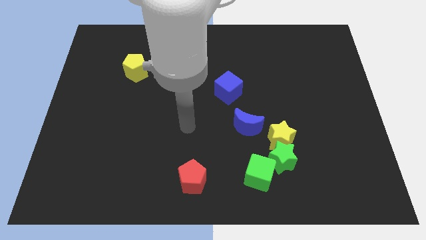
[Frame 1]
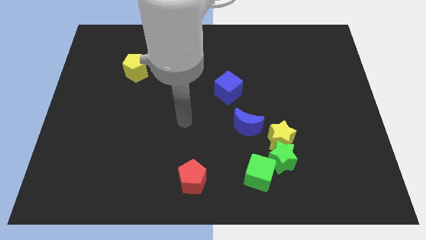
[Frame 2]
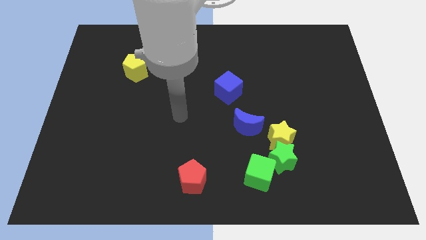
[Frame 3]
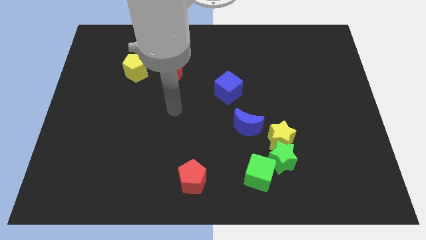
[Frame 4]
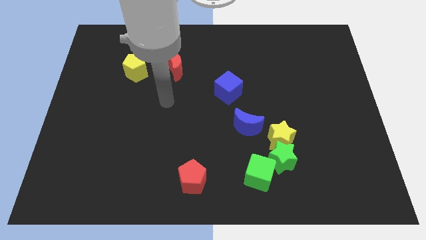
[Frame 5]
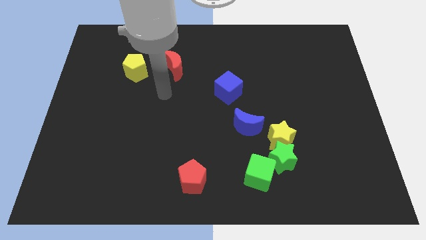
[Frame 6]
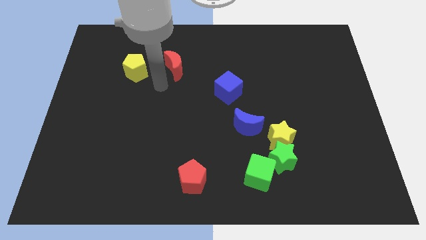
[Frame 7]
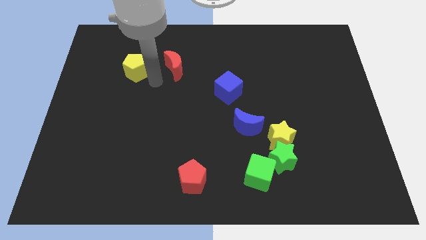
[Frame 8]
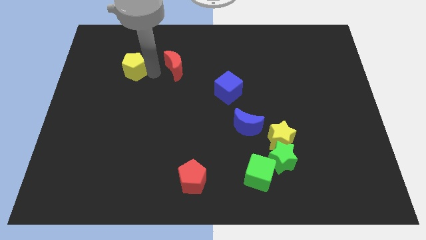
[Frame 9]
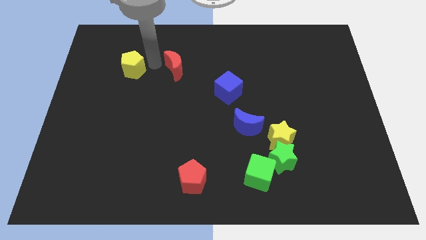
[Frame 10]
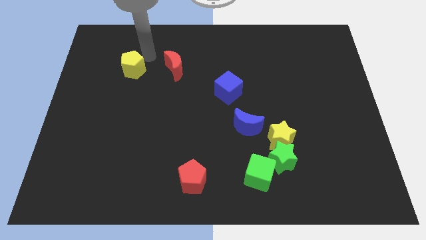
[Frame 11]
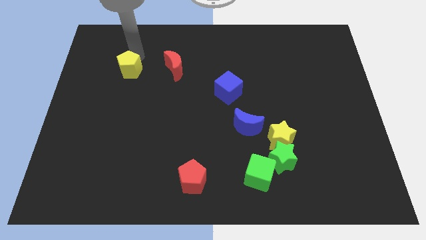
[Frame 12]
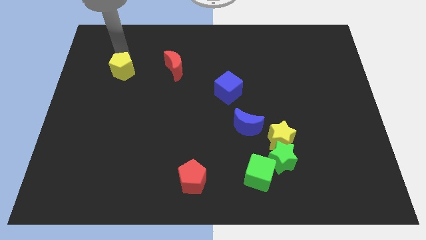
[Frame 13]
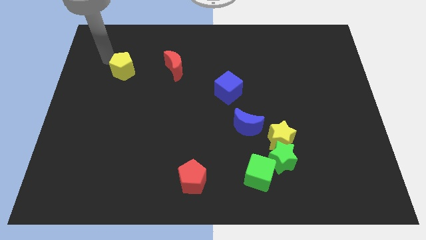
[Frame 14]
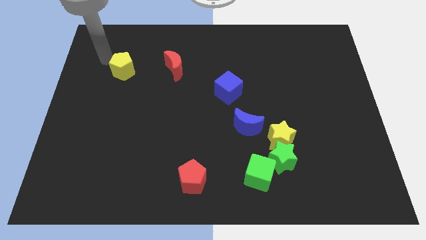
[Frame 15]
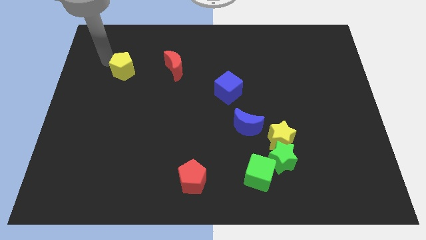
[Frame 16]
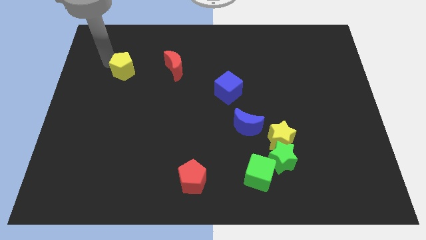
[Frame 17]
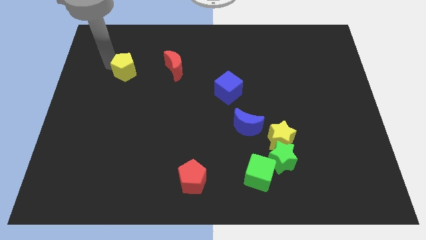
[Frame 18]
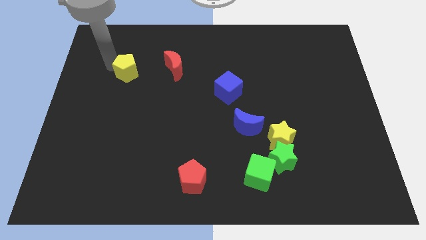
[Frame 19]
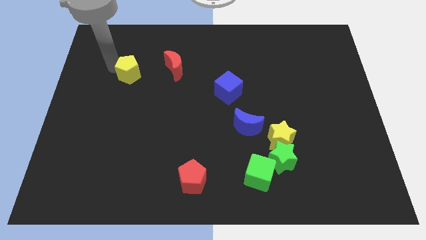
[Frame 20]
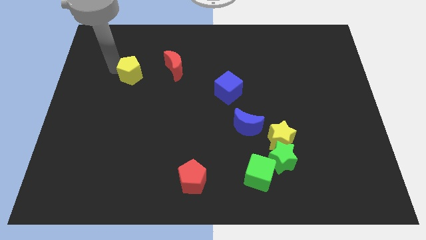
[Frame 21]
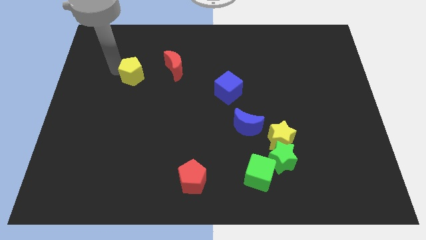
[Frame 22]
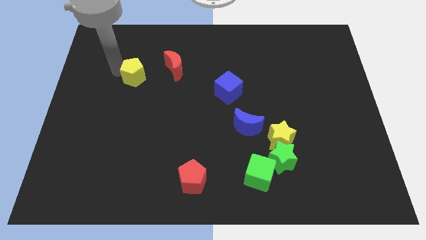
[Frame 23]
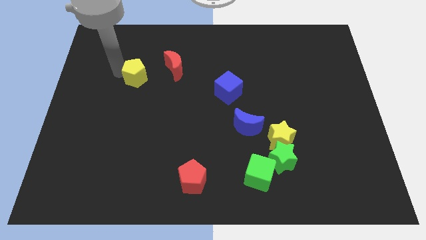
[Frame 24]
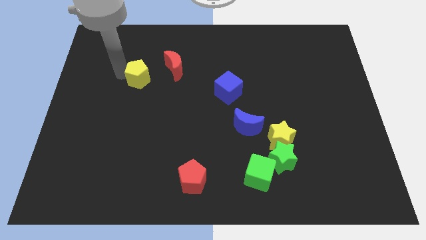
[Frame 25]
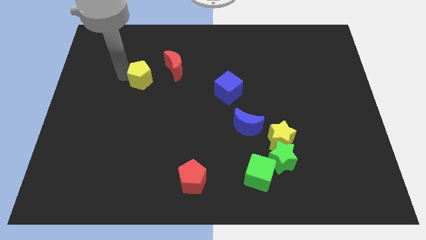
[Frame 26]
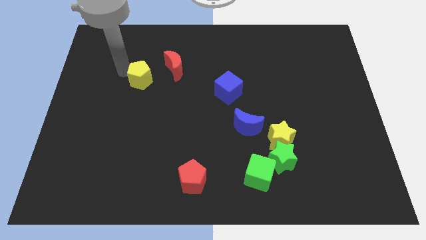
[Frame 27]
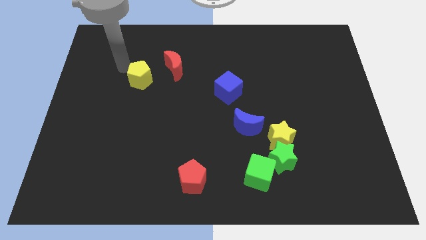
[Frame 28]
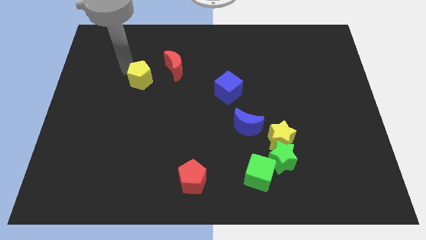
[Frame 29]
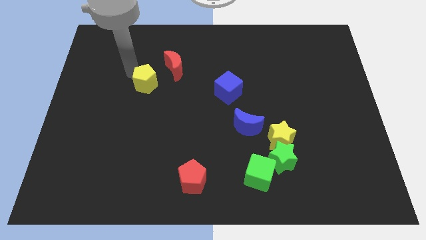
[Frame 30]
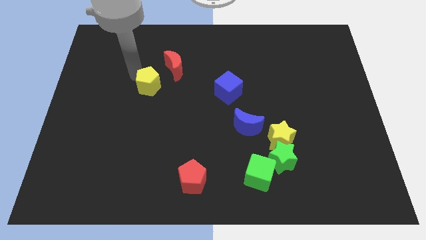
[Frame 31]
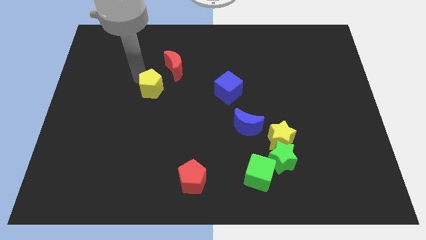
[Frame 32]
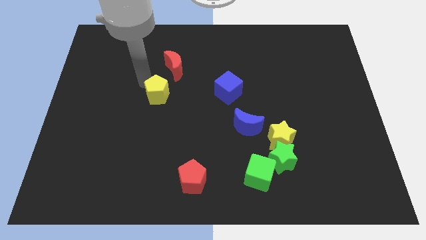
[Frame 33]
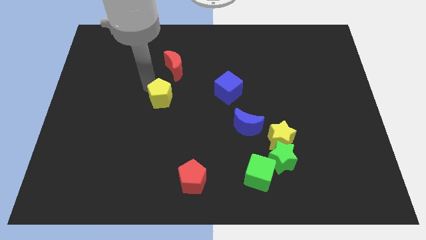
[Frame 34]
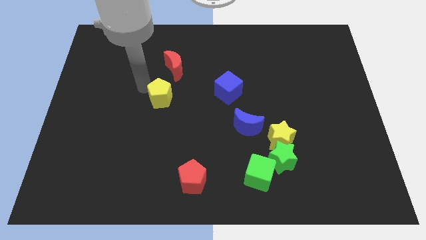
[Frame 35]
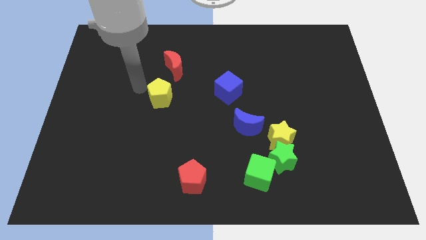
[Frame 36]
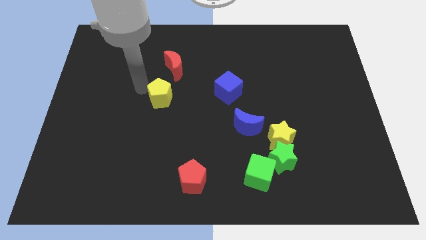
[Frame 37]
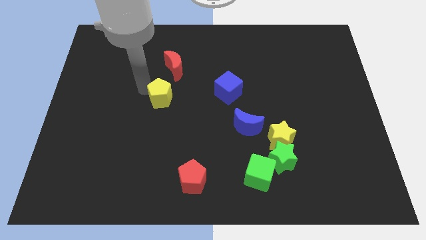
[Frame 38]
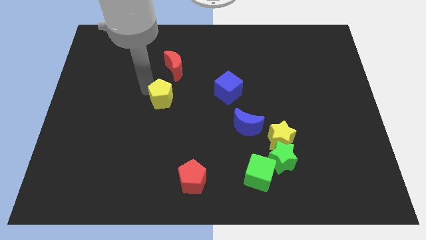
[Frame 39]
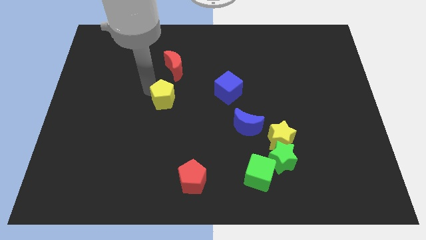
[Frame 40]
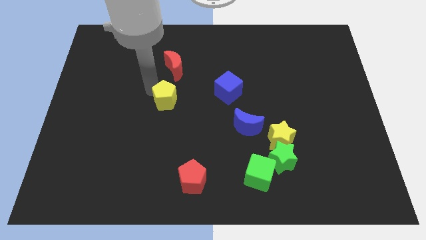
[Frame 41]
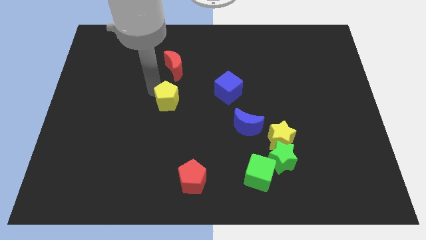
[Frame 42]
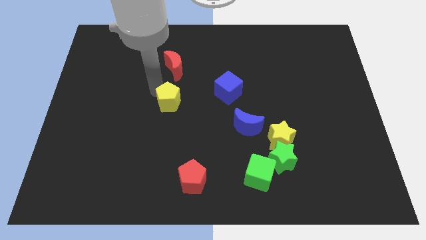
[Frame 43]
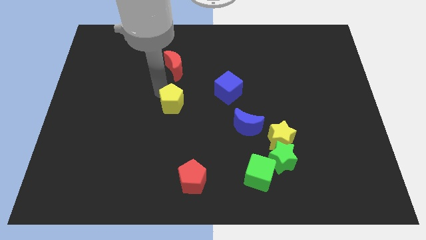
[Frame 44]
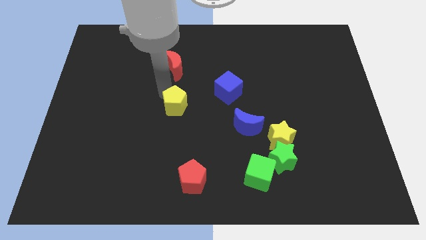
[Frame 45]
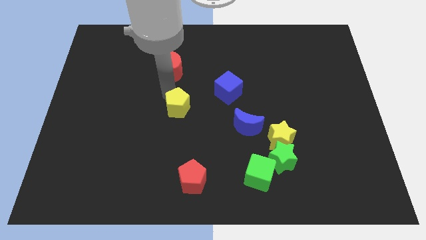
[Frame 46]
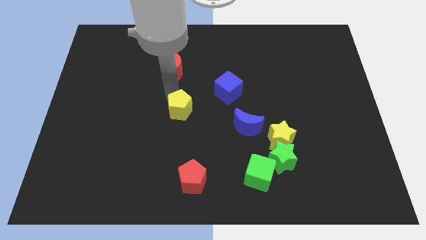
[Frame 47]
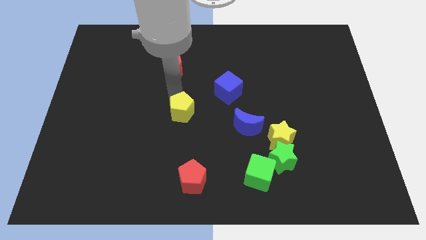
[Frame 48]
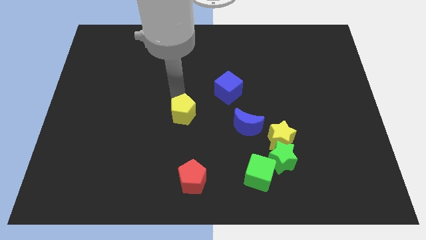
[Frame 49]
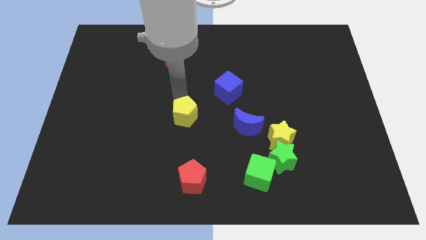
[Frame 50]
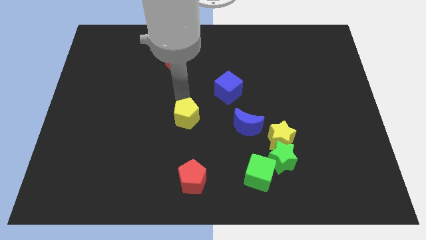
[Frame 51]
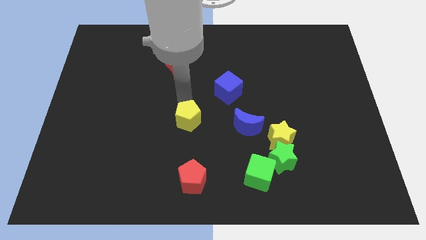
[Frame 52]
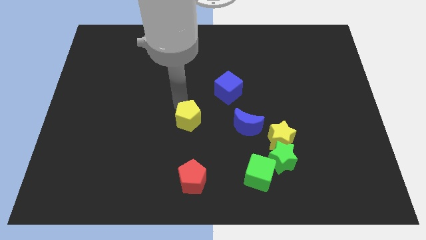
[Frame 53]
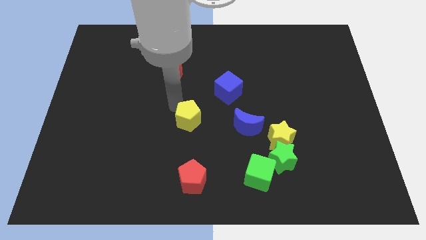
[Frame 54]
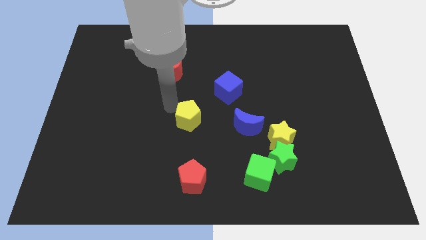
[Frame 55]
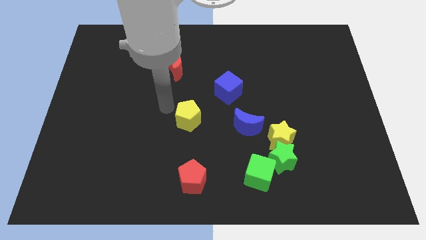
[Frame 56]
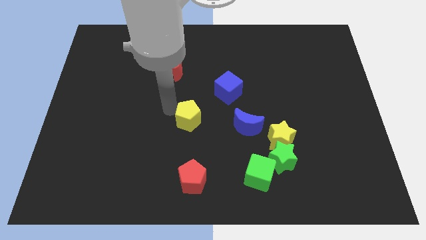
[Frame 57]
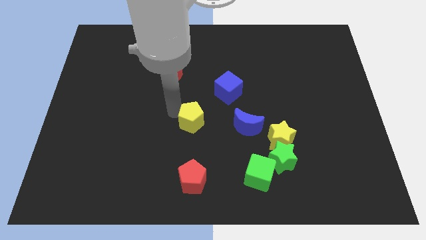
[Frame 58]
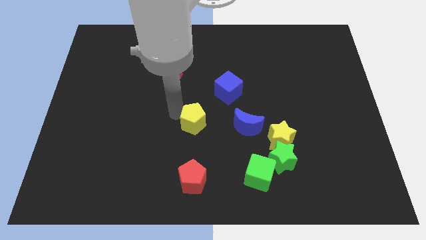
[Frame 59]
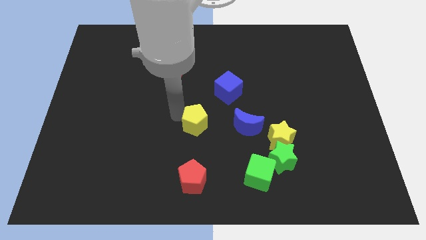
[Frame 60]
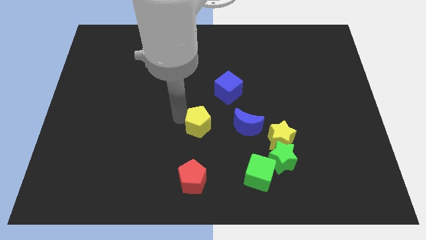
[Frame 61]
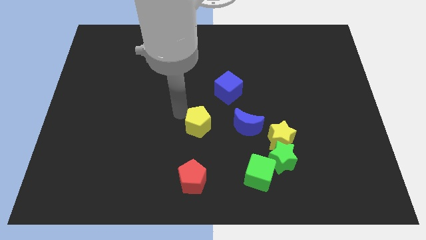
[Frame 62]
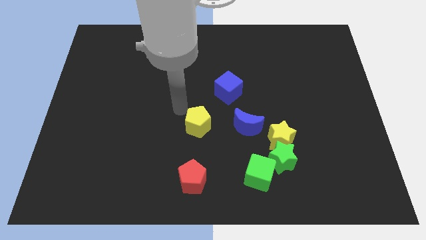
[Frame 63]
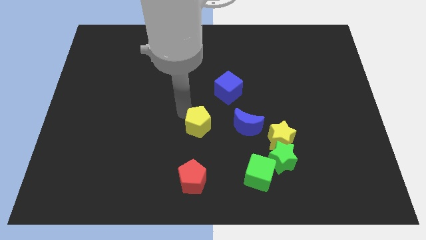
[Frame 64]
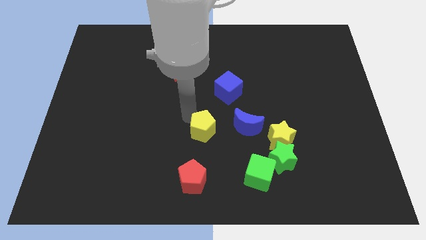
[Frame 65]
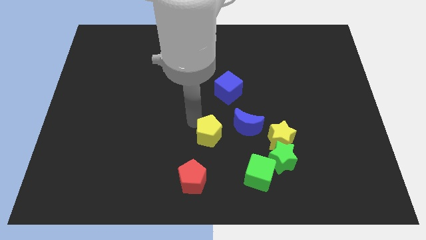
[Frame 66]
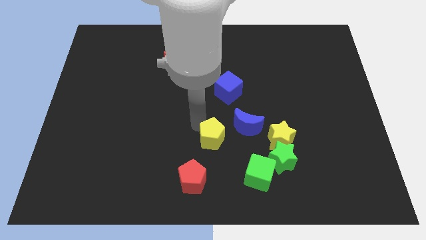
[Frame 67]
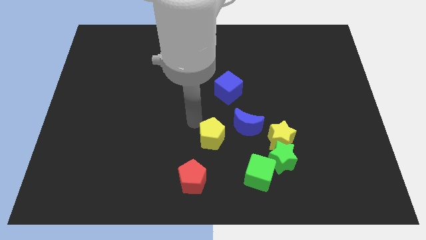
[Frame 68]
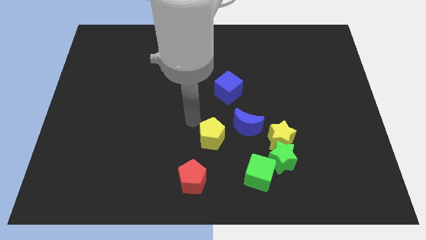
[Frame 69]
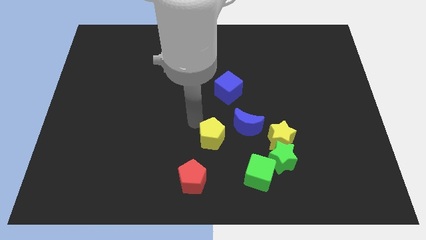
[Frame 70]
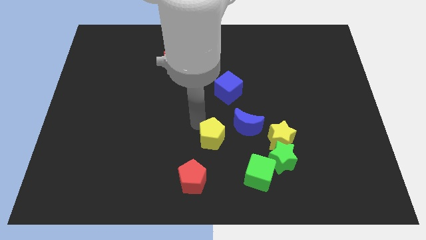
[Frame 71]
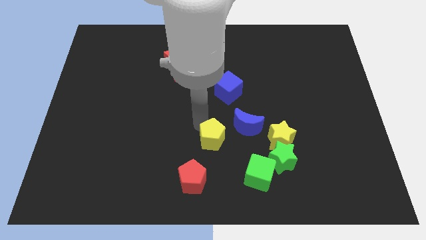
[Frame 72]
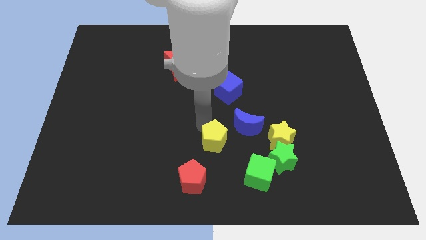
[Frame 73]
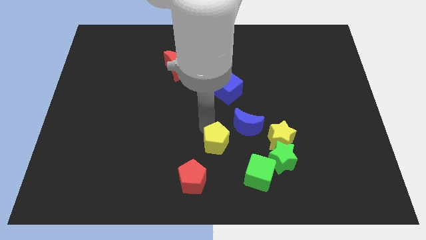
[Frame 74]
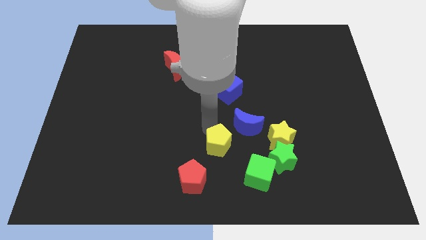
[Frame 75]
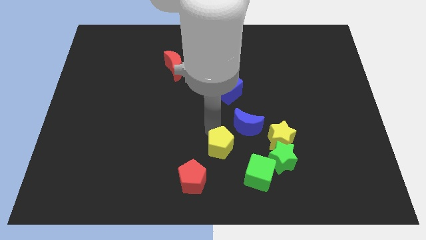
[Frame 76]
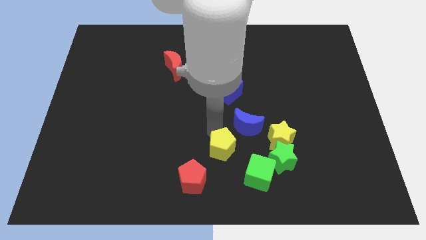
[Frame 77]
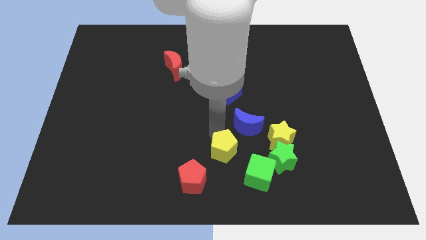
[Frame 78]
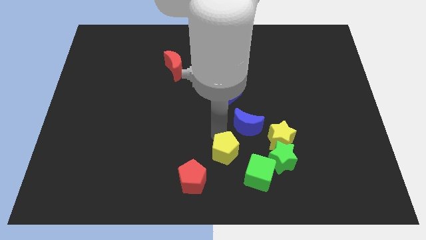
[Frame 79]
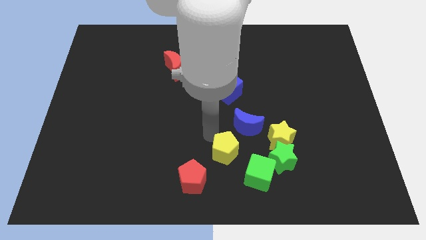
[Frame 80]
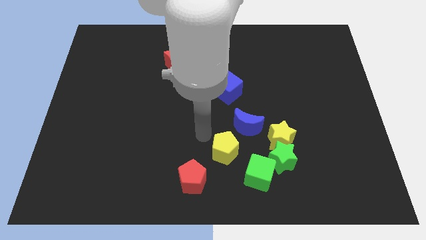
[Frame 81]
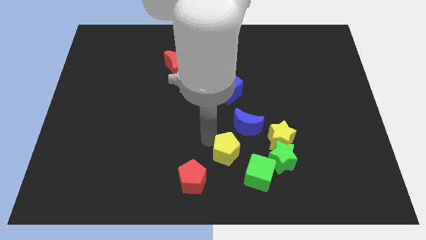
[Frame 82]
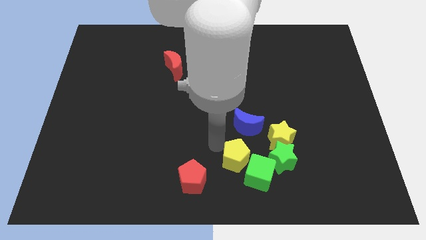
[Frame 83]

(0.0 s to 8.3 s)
slide the yellow pentagon to the green cube
